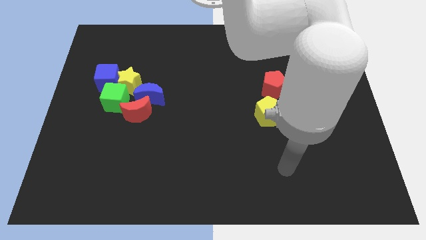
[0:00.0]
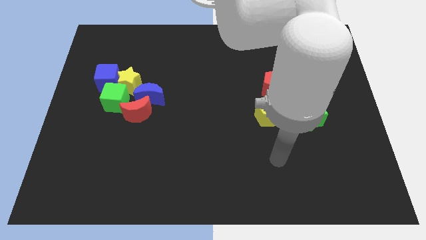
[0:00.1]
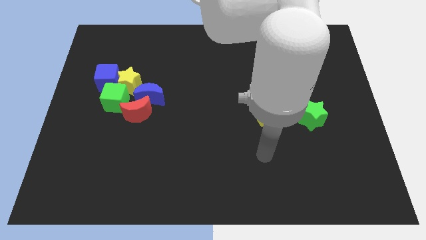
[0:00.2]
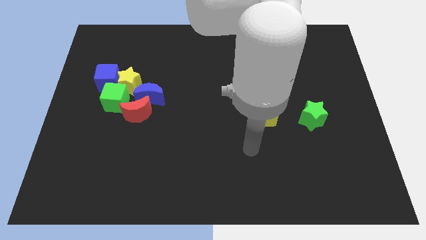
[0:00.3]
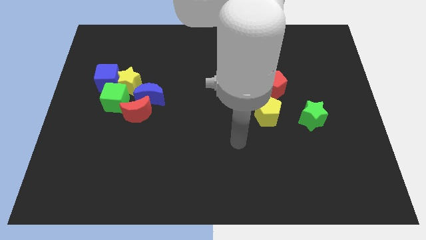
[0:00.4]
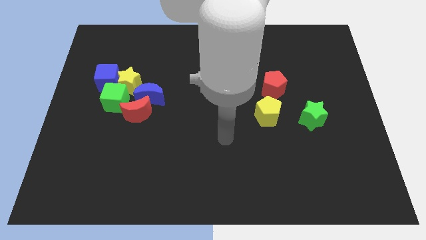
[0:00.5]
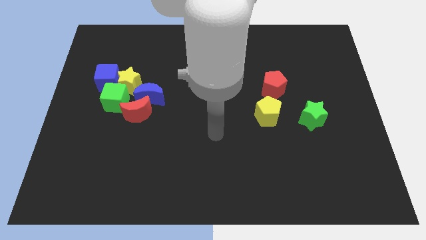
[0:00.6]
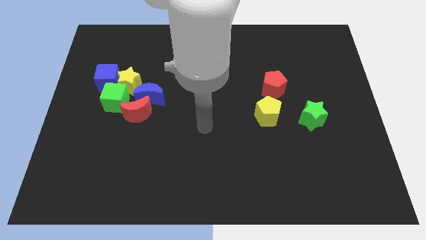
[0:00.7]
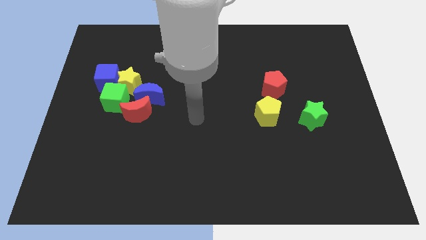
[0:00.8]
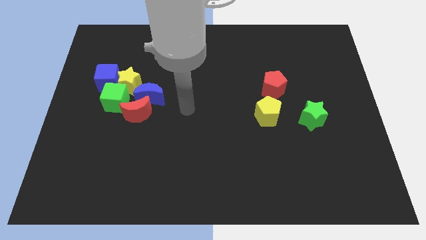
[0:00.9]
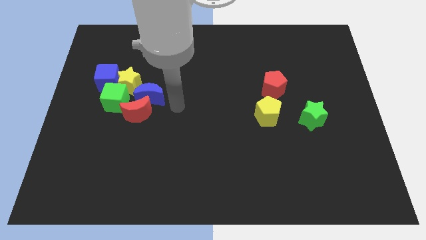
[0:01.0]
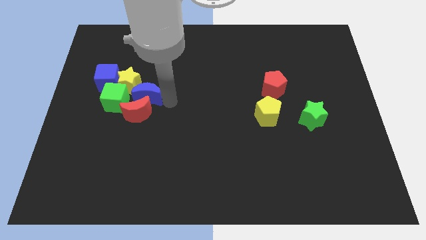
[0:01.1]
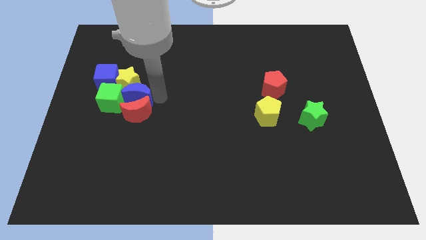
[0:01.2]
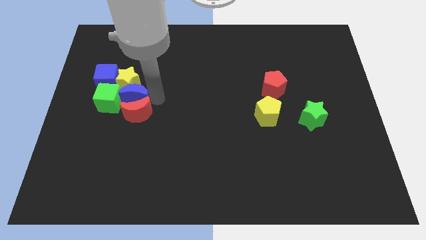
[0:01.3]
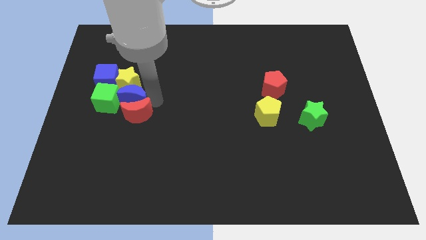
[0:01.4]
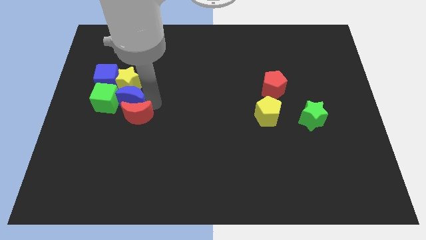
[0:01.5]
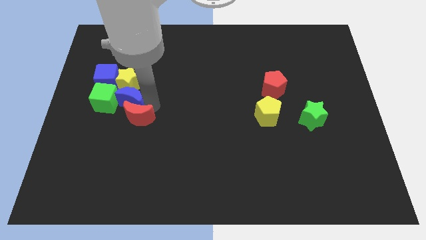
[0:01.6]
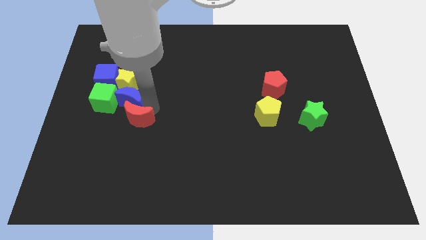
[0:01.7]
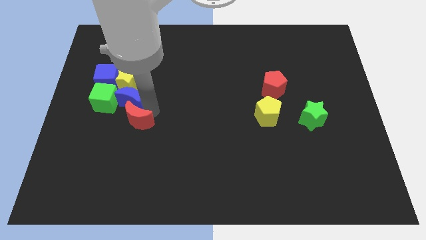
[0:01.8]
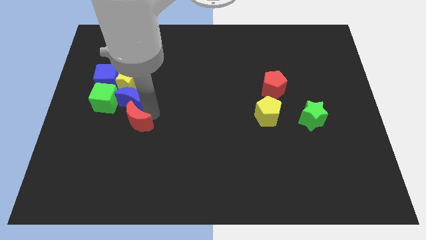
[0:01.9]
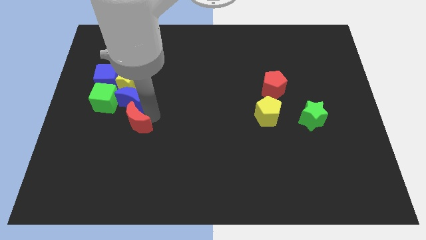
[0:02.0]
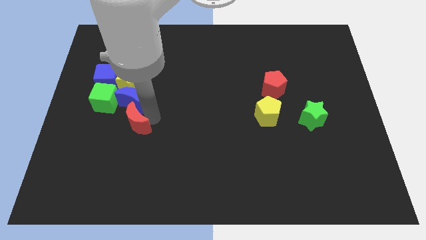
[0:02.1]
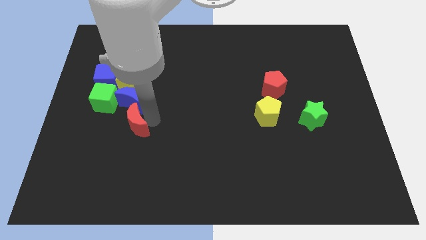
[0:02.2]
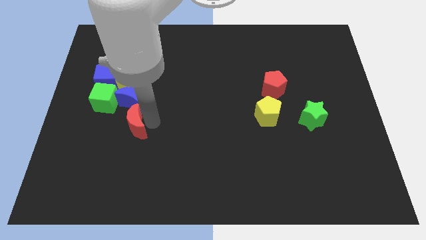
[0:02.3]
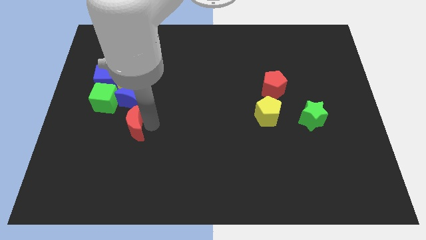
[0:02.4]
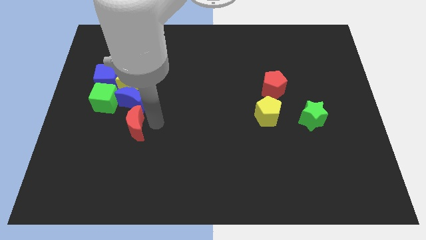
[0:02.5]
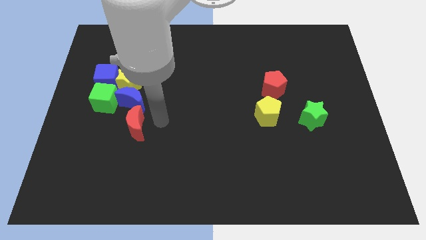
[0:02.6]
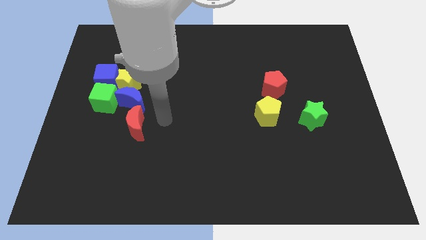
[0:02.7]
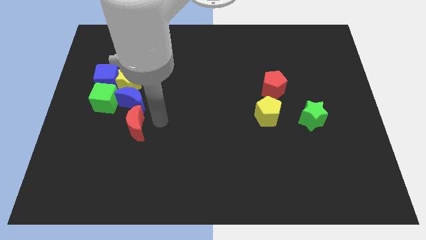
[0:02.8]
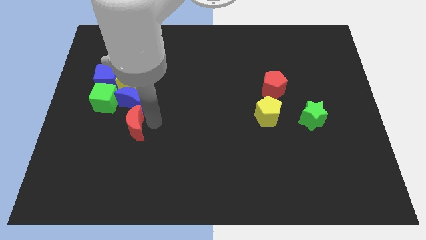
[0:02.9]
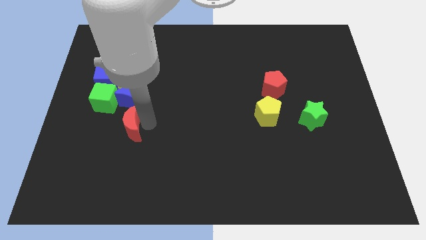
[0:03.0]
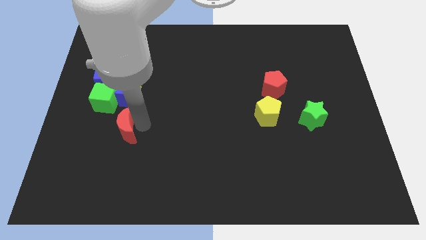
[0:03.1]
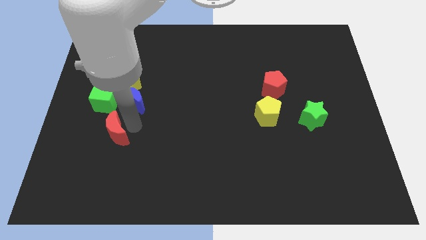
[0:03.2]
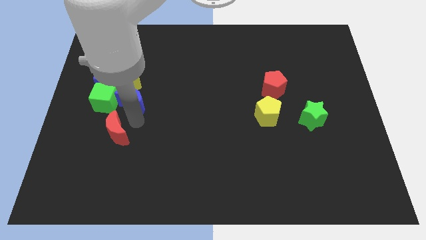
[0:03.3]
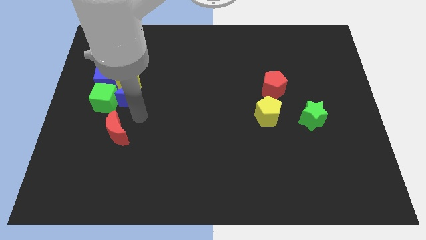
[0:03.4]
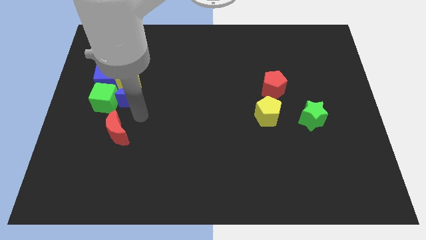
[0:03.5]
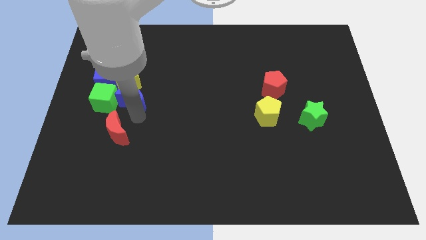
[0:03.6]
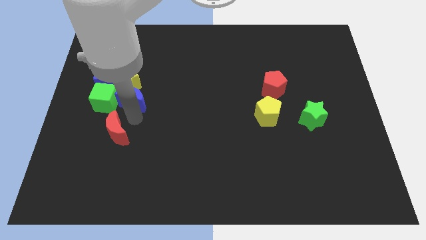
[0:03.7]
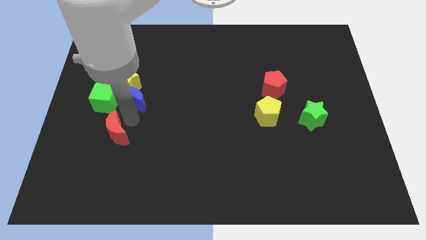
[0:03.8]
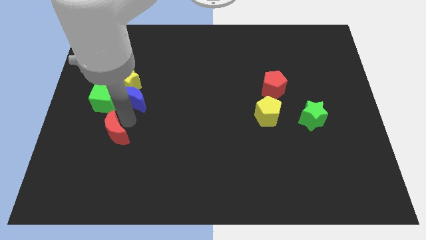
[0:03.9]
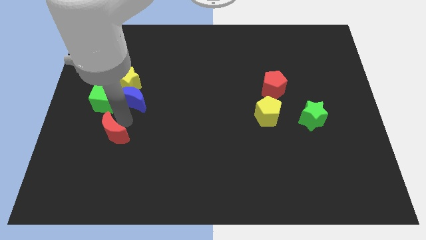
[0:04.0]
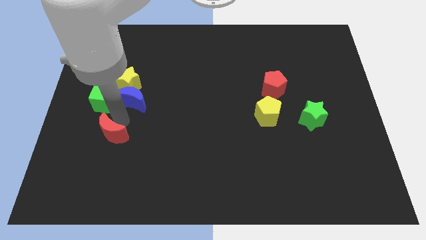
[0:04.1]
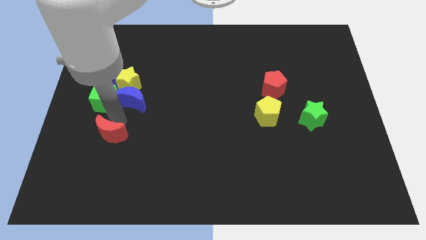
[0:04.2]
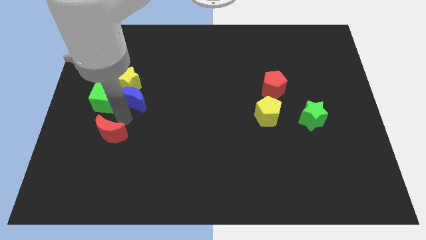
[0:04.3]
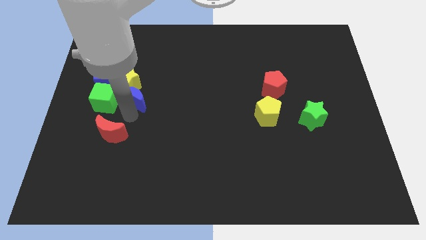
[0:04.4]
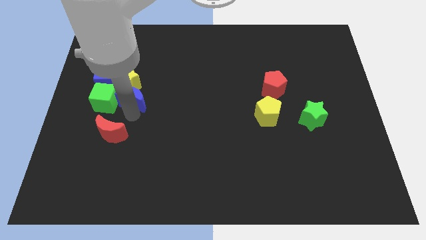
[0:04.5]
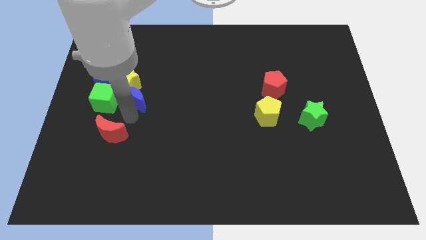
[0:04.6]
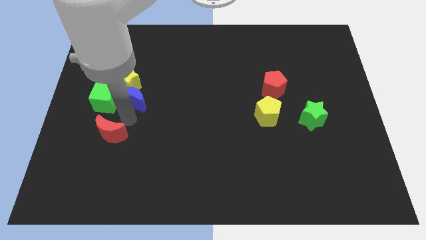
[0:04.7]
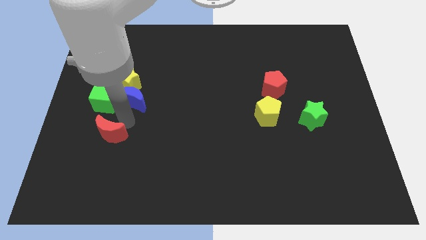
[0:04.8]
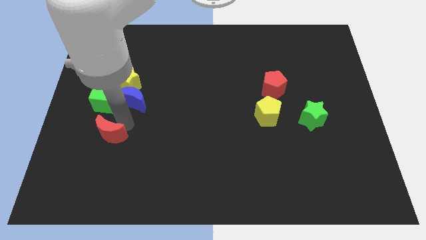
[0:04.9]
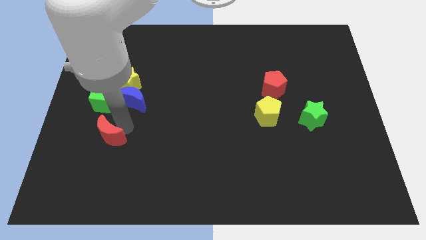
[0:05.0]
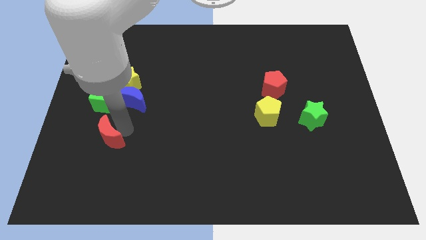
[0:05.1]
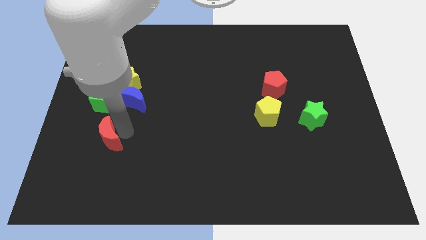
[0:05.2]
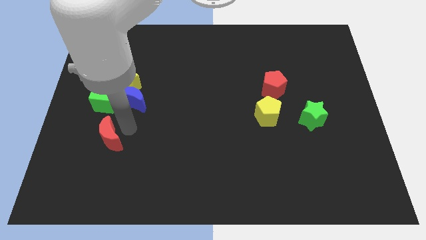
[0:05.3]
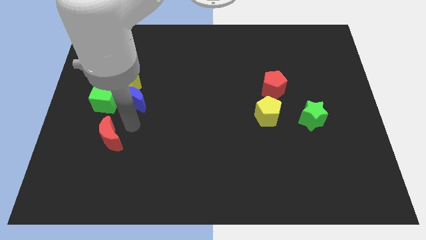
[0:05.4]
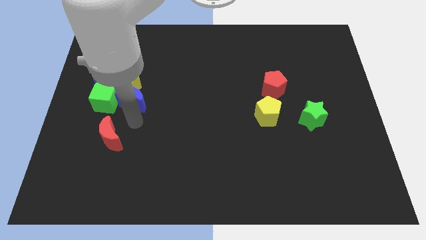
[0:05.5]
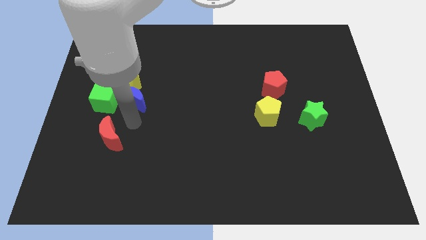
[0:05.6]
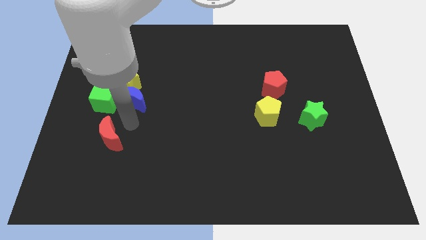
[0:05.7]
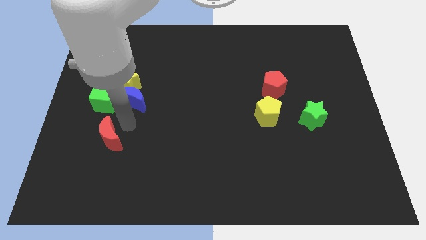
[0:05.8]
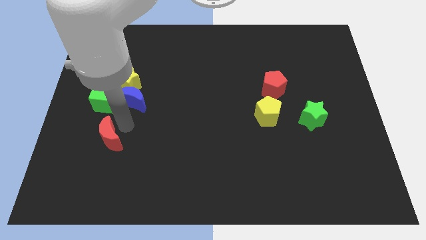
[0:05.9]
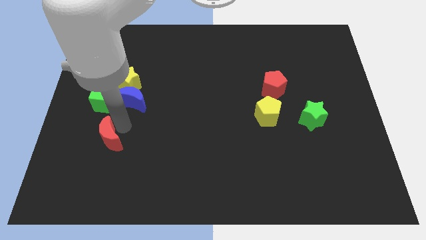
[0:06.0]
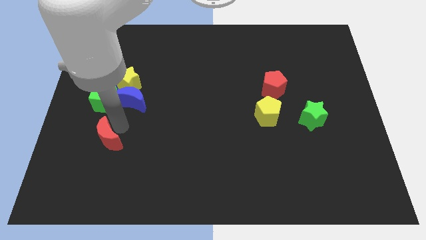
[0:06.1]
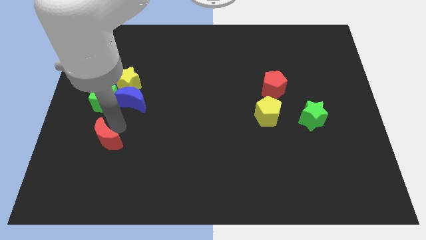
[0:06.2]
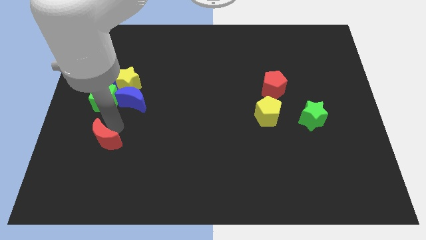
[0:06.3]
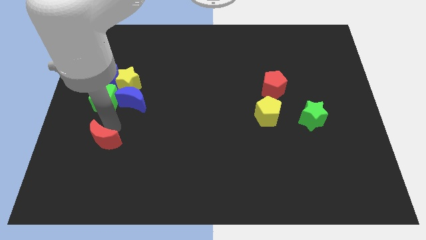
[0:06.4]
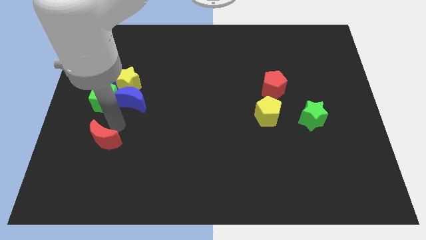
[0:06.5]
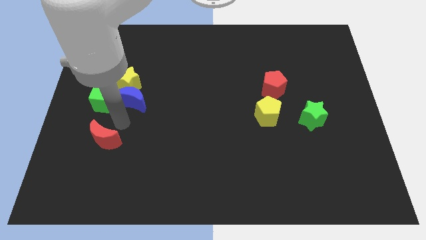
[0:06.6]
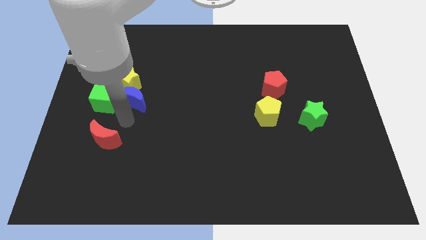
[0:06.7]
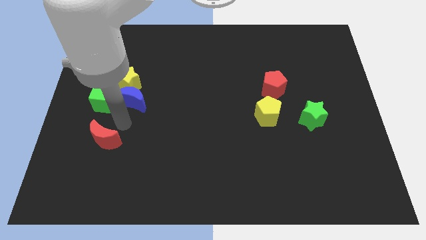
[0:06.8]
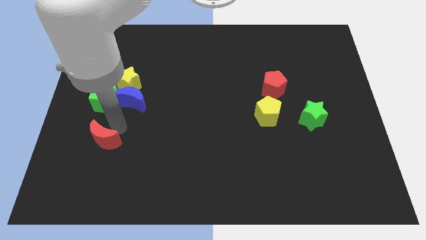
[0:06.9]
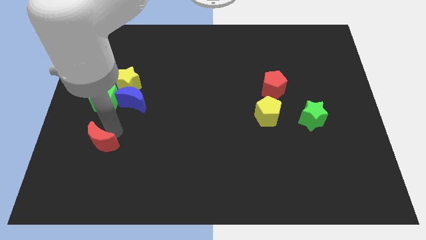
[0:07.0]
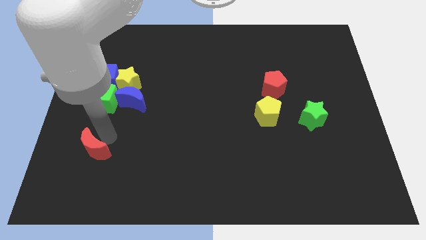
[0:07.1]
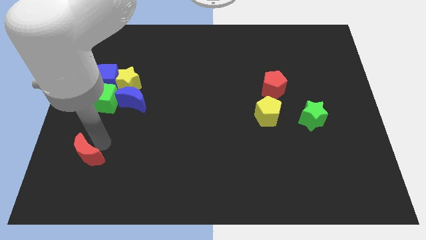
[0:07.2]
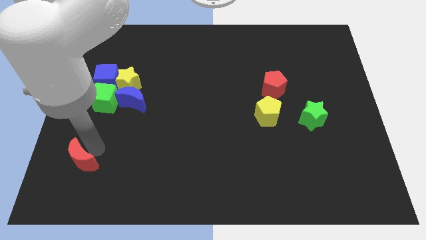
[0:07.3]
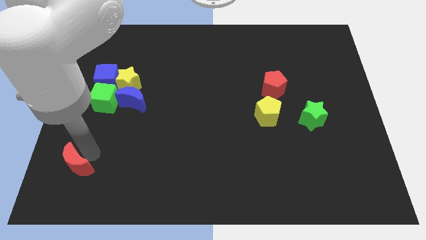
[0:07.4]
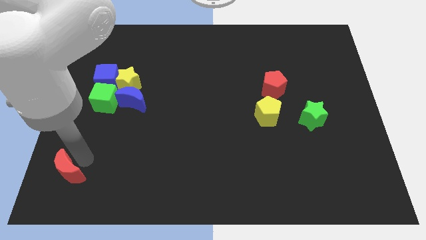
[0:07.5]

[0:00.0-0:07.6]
push the red moon to the bottom left corner

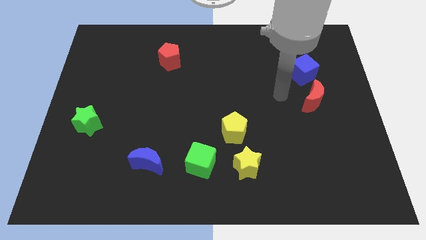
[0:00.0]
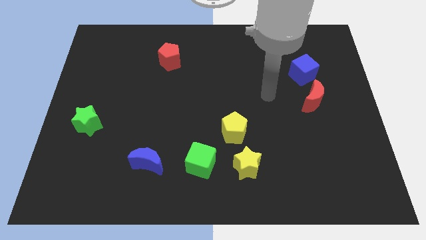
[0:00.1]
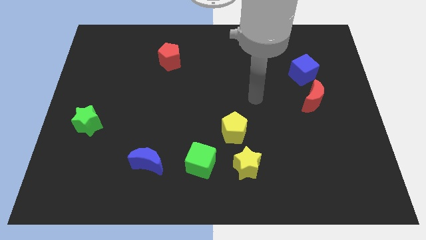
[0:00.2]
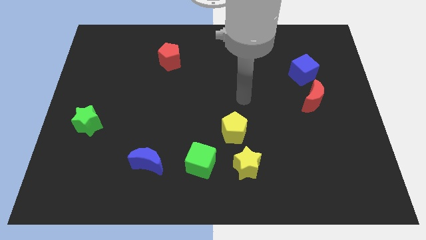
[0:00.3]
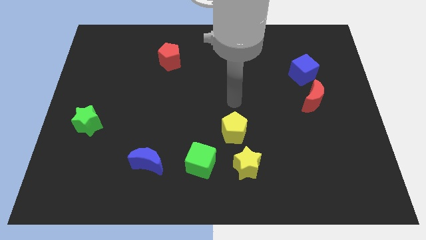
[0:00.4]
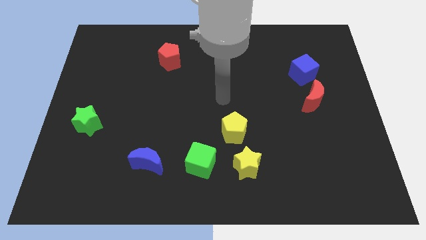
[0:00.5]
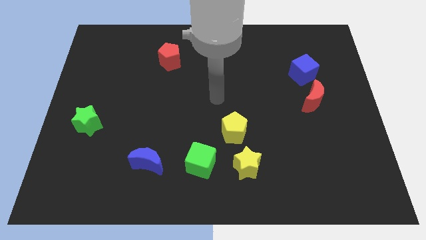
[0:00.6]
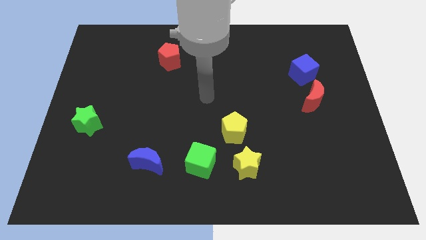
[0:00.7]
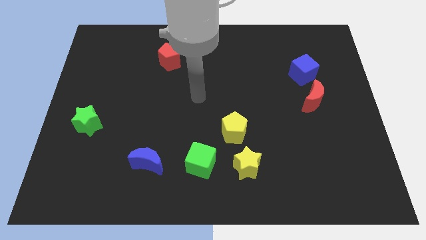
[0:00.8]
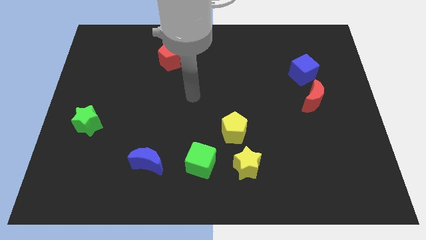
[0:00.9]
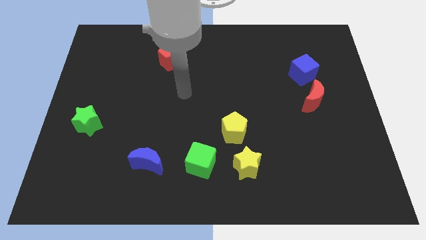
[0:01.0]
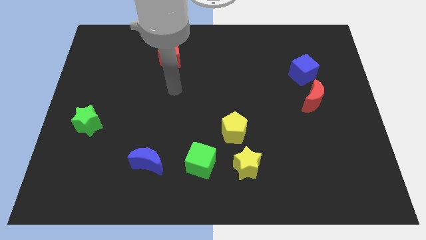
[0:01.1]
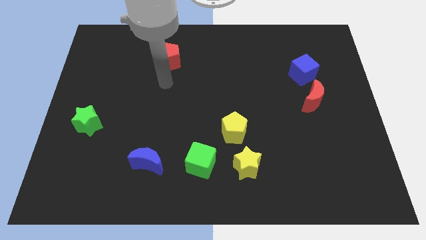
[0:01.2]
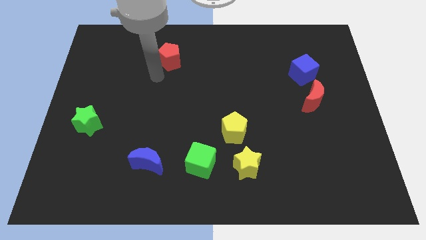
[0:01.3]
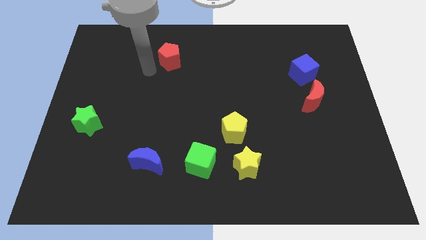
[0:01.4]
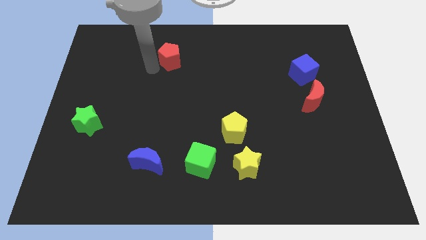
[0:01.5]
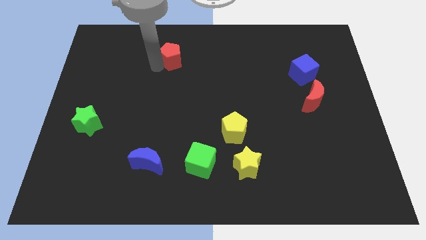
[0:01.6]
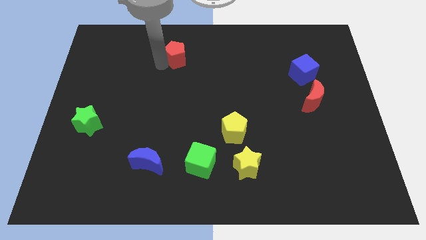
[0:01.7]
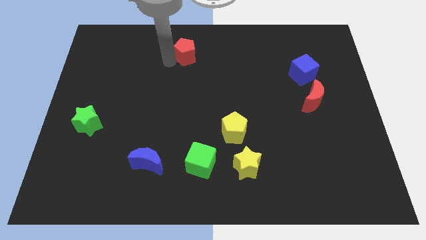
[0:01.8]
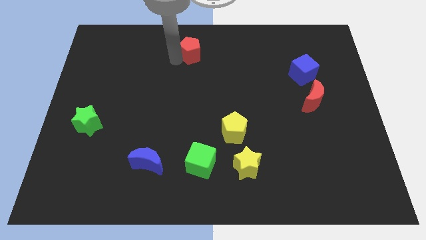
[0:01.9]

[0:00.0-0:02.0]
put the red pentagon to the top side
